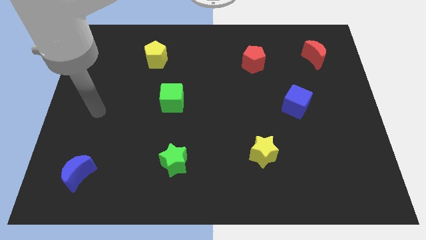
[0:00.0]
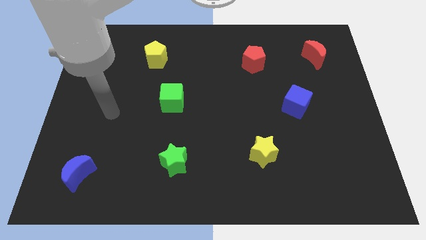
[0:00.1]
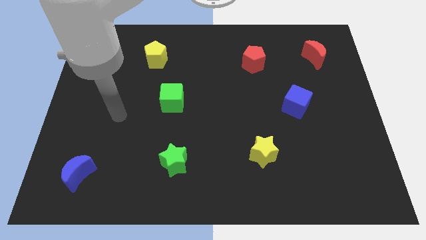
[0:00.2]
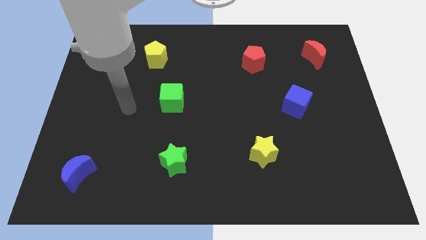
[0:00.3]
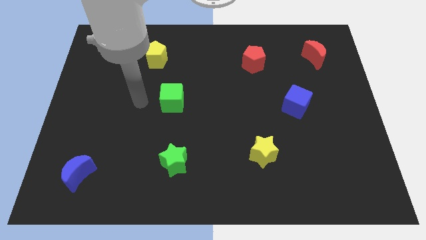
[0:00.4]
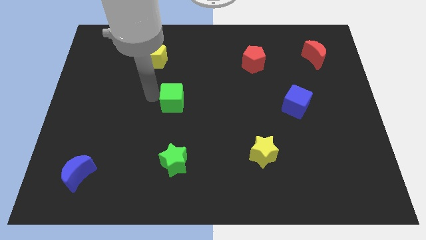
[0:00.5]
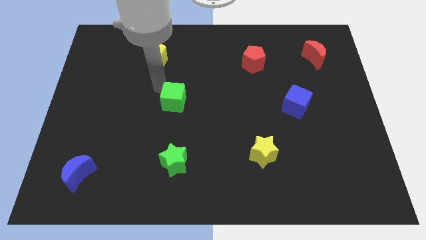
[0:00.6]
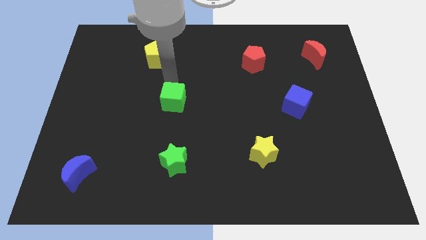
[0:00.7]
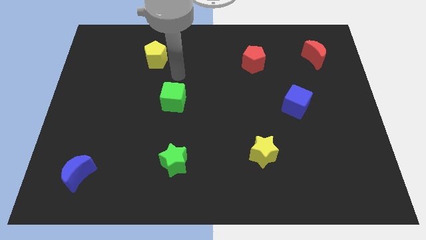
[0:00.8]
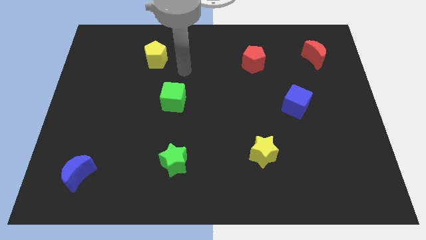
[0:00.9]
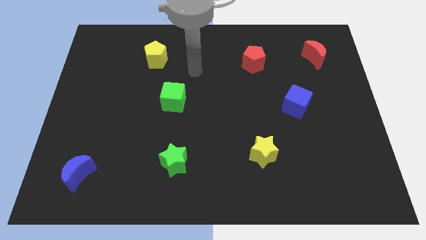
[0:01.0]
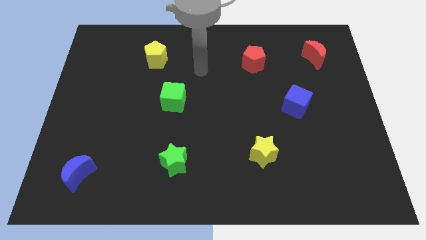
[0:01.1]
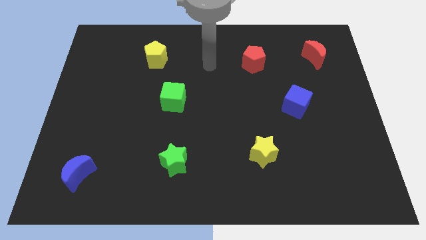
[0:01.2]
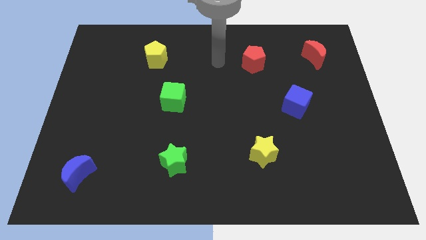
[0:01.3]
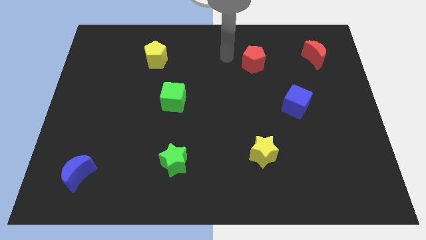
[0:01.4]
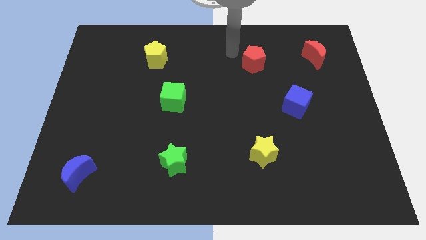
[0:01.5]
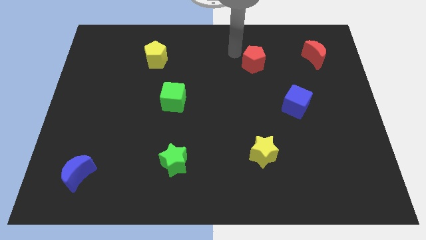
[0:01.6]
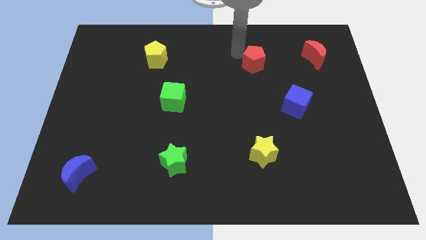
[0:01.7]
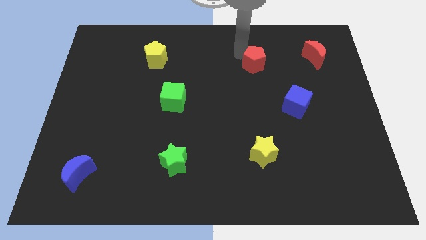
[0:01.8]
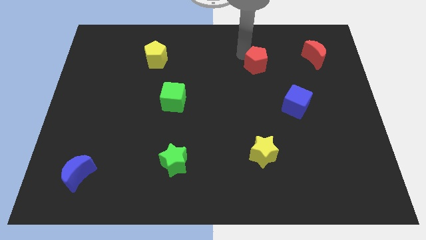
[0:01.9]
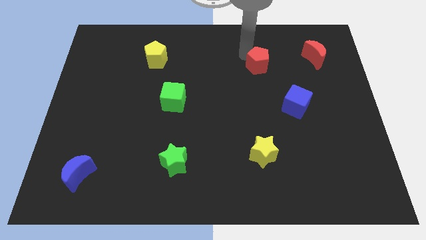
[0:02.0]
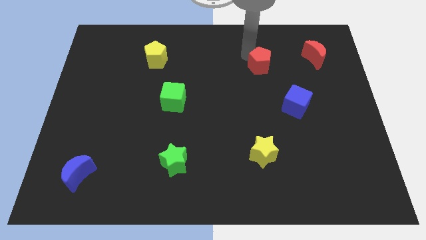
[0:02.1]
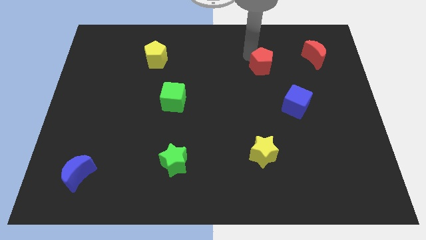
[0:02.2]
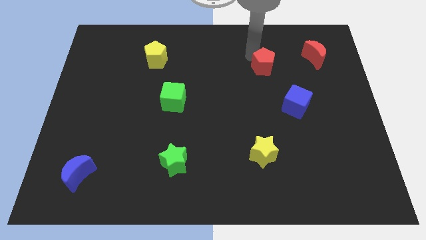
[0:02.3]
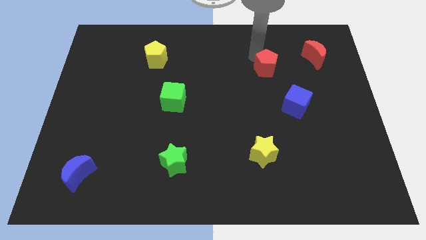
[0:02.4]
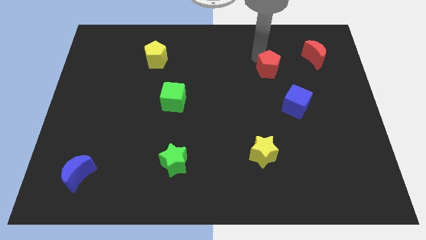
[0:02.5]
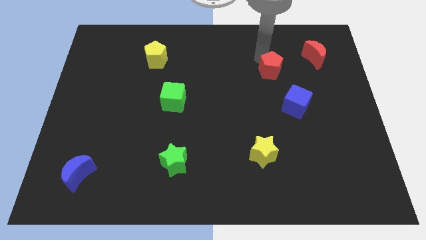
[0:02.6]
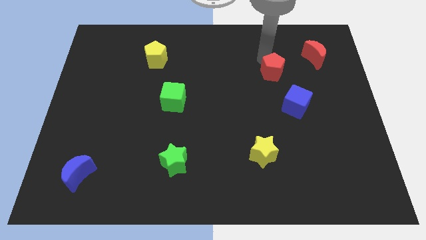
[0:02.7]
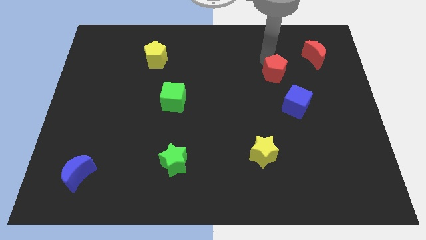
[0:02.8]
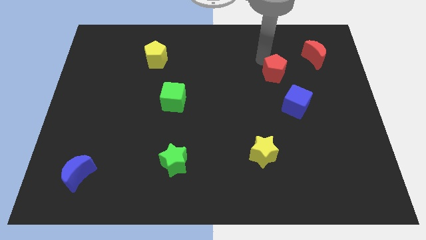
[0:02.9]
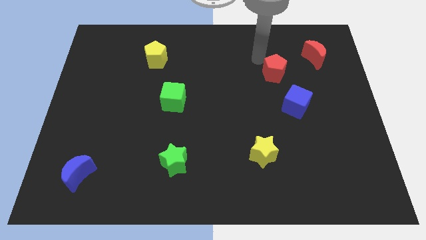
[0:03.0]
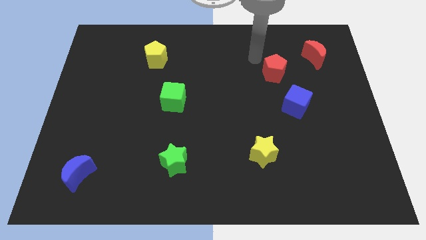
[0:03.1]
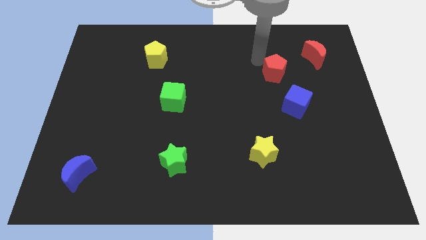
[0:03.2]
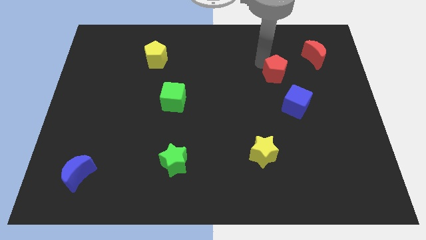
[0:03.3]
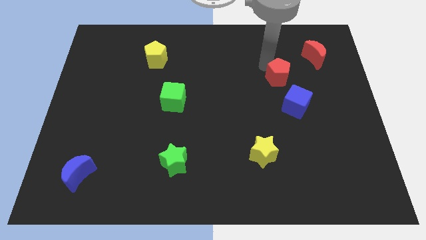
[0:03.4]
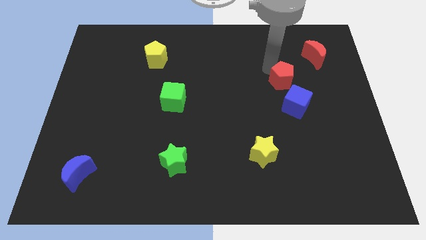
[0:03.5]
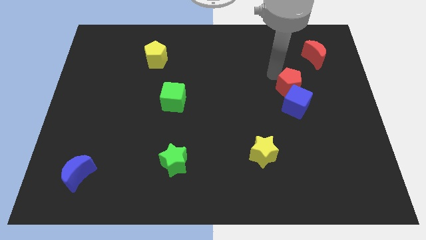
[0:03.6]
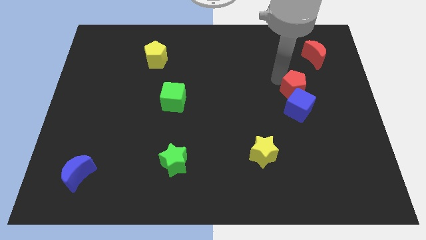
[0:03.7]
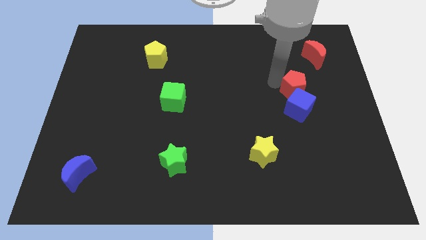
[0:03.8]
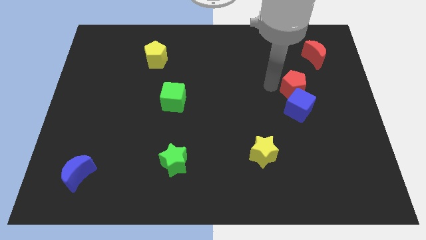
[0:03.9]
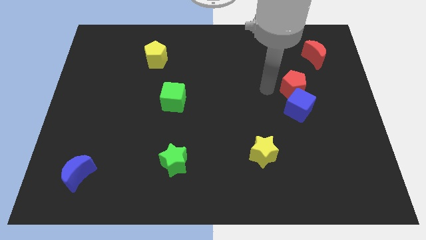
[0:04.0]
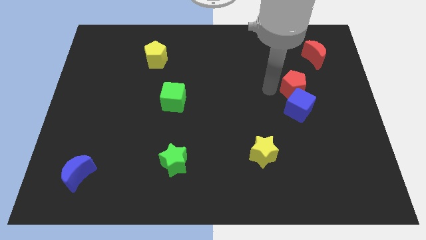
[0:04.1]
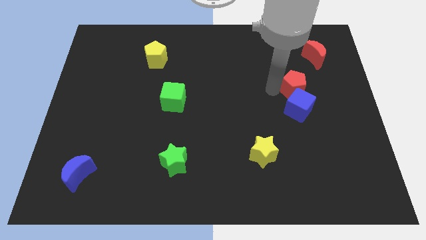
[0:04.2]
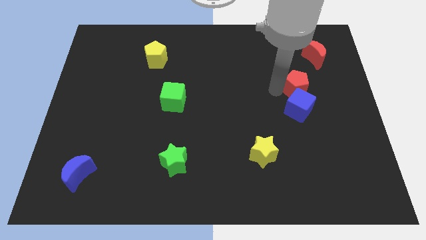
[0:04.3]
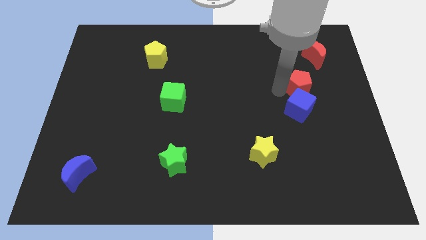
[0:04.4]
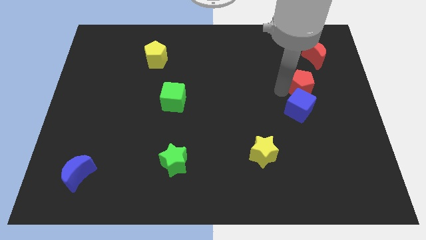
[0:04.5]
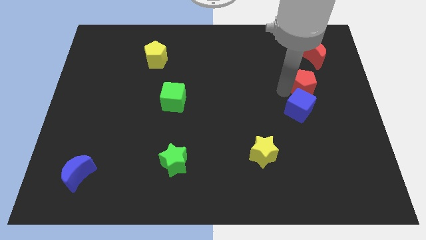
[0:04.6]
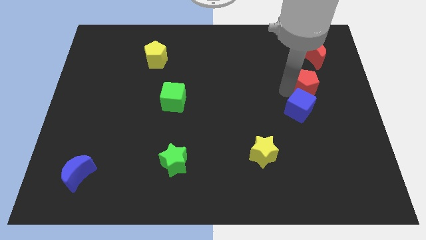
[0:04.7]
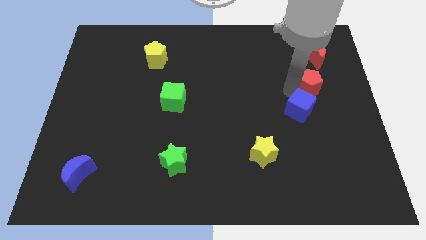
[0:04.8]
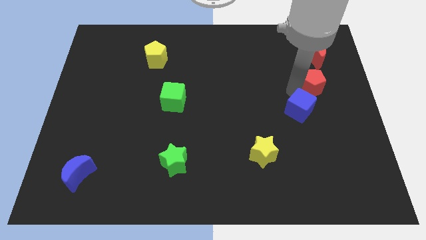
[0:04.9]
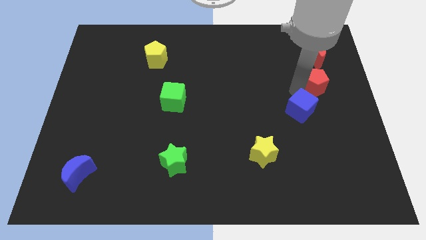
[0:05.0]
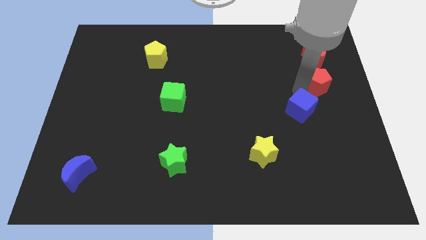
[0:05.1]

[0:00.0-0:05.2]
slide the red pentagon to the right side

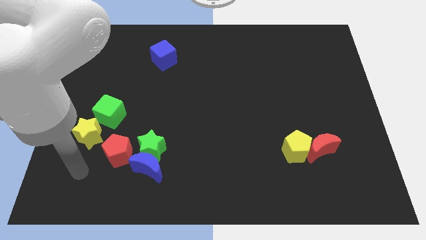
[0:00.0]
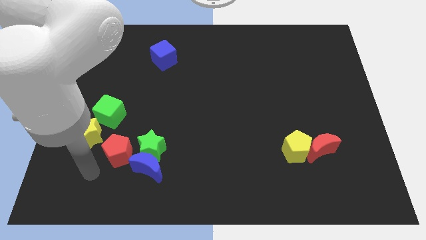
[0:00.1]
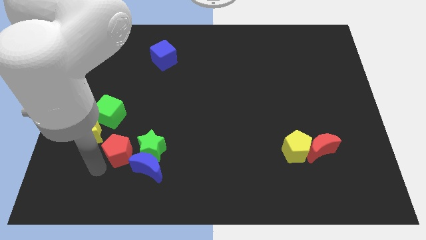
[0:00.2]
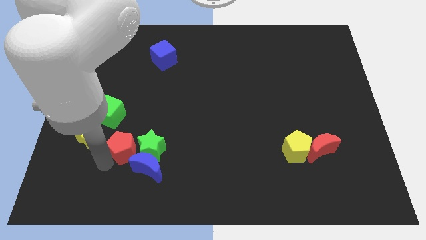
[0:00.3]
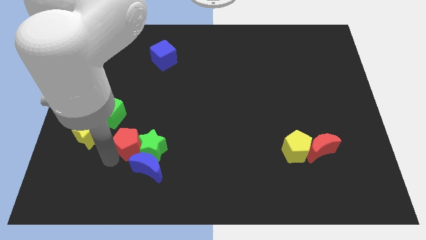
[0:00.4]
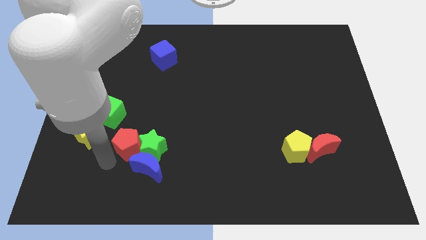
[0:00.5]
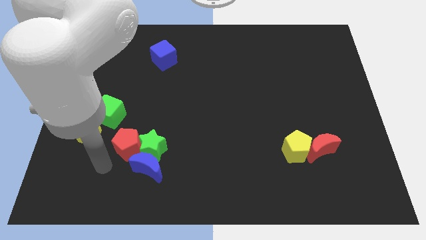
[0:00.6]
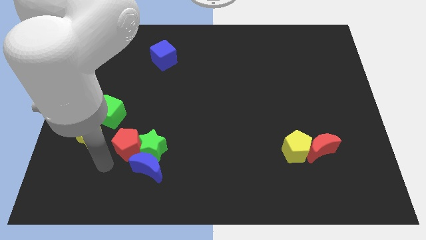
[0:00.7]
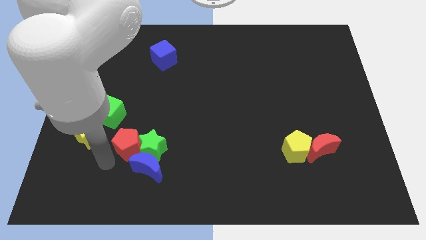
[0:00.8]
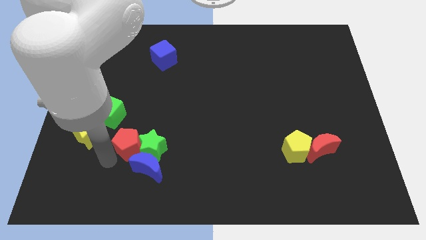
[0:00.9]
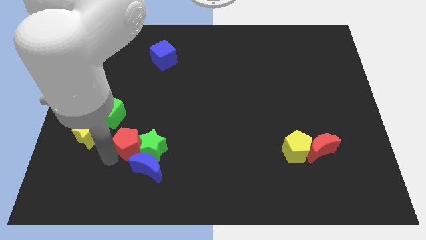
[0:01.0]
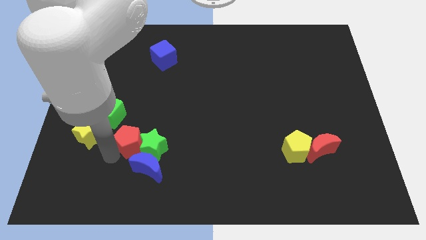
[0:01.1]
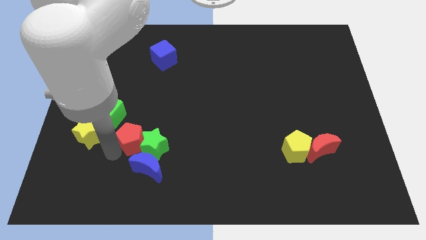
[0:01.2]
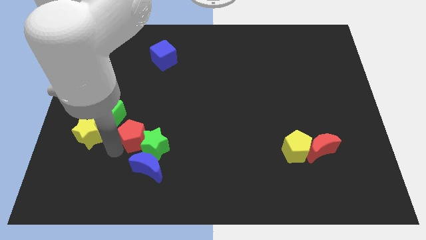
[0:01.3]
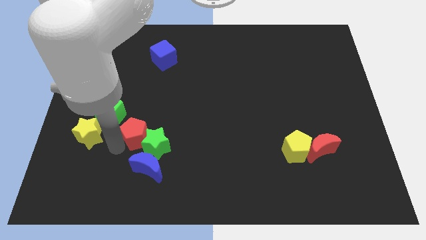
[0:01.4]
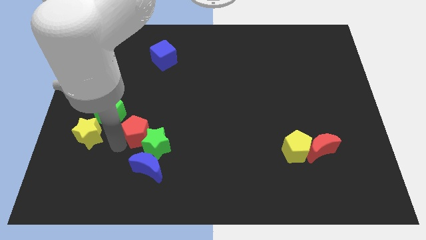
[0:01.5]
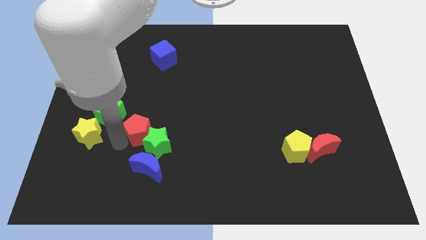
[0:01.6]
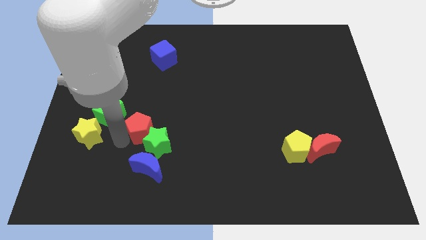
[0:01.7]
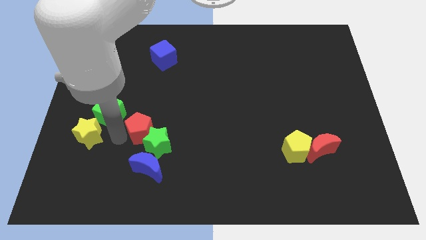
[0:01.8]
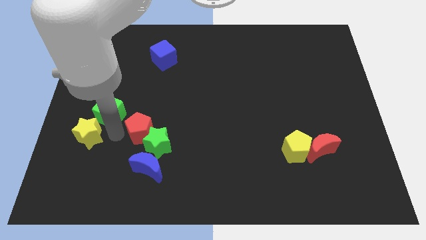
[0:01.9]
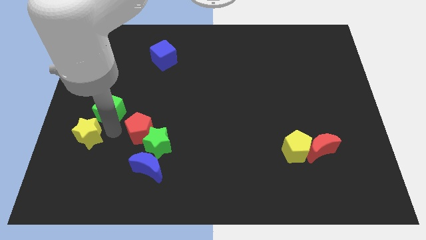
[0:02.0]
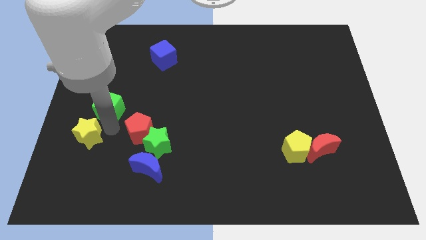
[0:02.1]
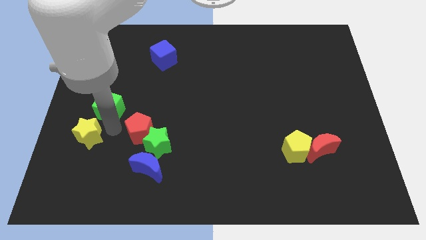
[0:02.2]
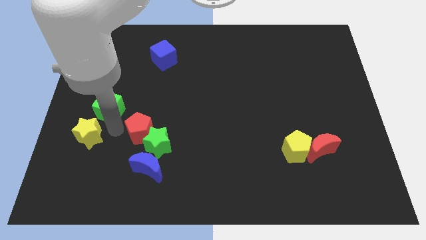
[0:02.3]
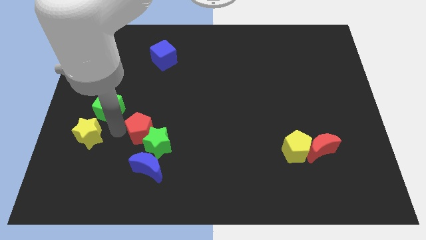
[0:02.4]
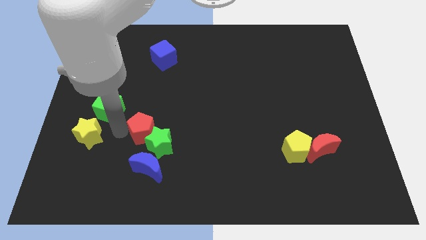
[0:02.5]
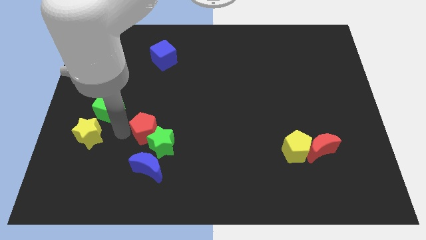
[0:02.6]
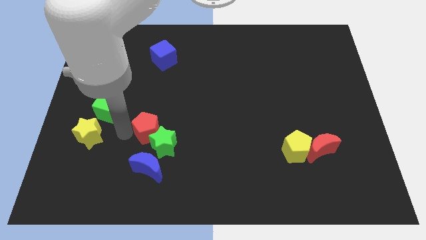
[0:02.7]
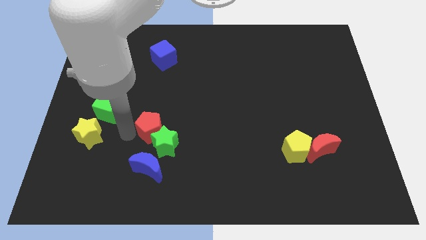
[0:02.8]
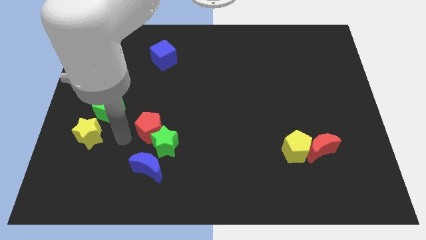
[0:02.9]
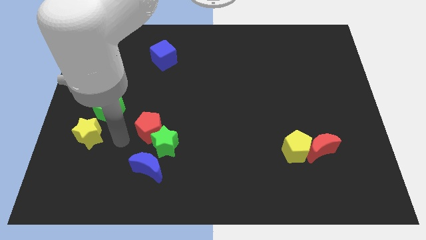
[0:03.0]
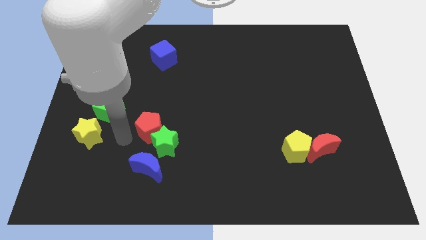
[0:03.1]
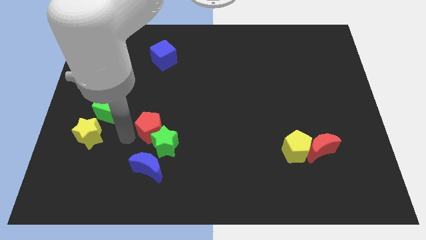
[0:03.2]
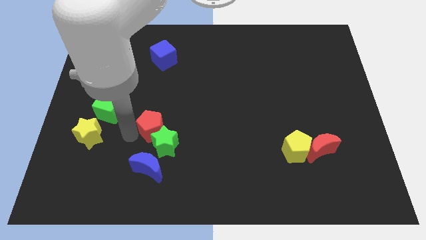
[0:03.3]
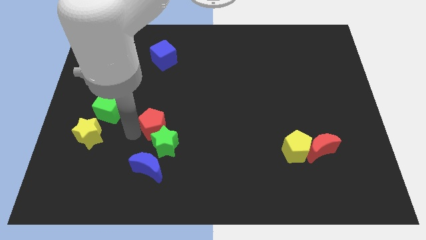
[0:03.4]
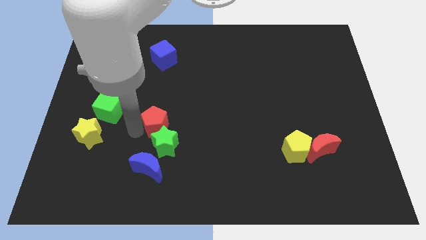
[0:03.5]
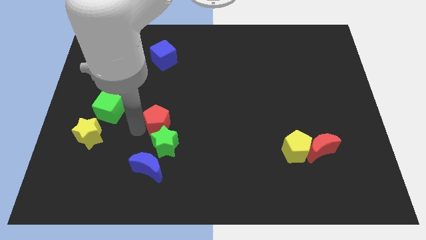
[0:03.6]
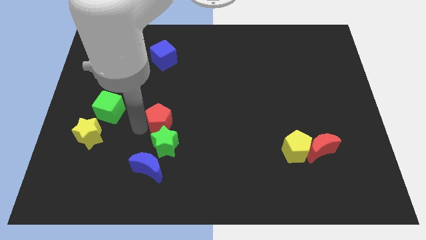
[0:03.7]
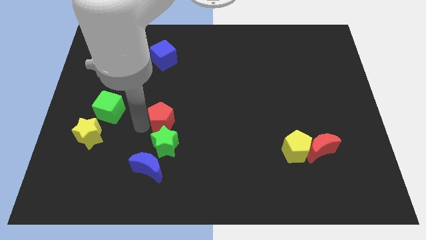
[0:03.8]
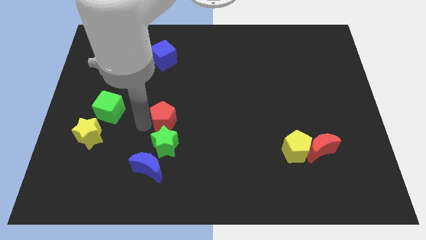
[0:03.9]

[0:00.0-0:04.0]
move the red pentagon to the middle of the board
